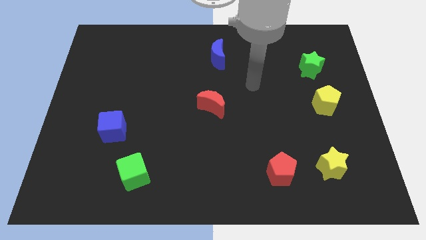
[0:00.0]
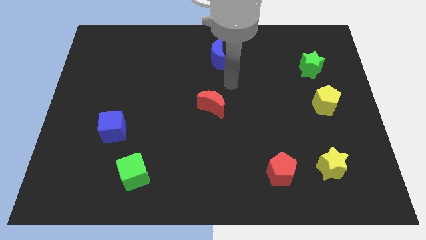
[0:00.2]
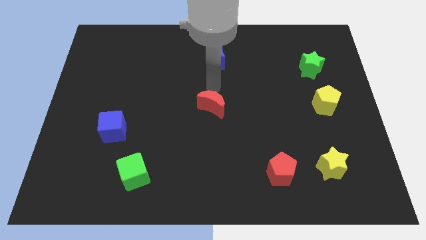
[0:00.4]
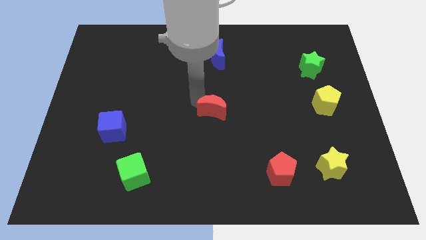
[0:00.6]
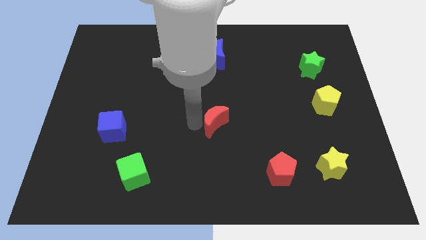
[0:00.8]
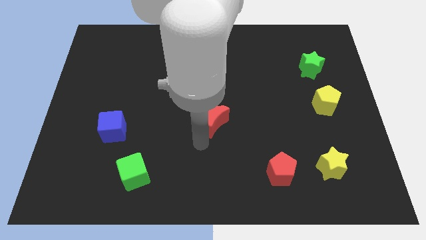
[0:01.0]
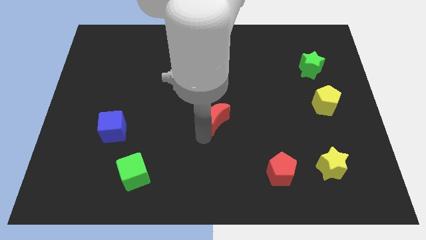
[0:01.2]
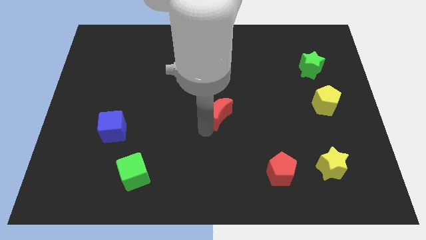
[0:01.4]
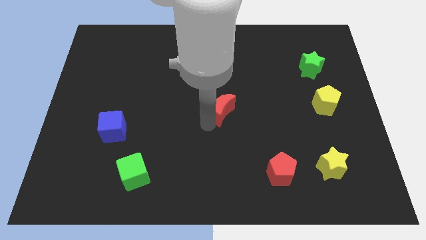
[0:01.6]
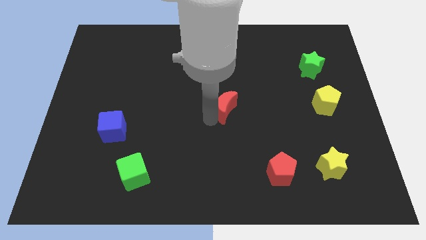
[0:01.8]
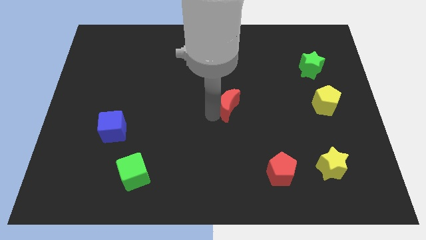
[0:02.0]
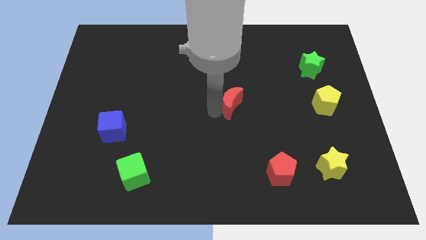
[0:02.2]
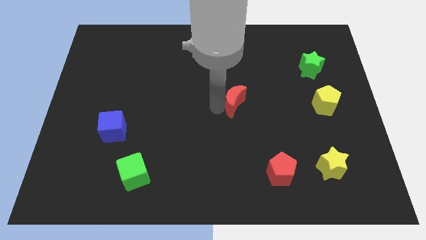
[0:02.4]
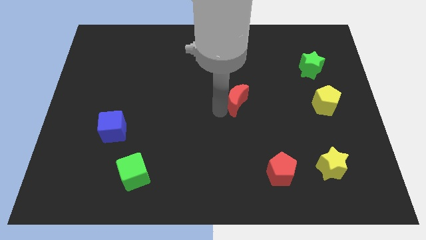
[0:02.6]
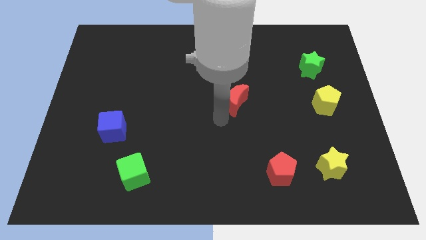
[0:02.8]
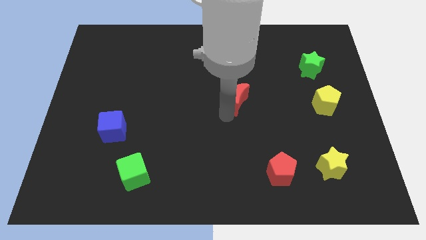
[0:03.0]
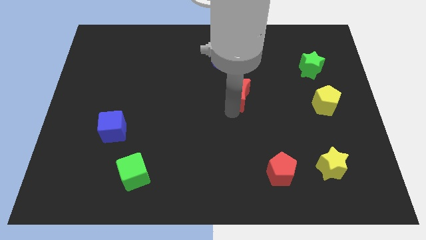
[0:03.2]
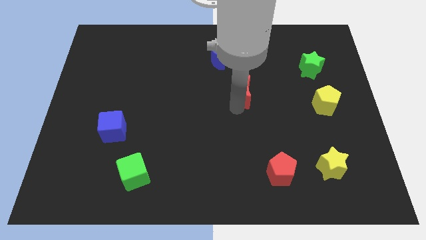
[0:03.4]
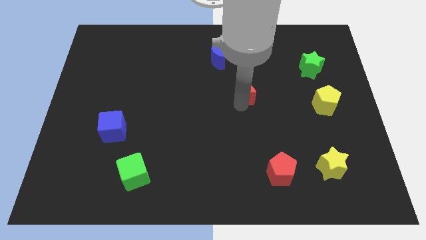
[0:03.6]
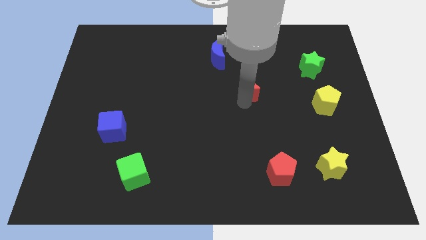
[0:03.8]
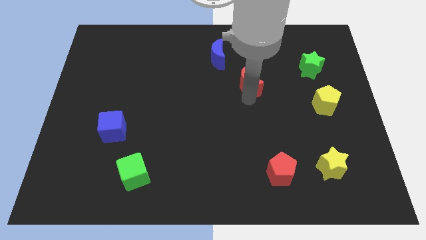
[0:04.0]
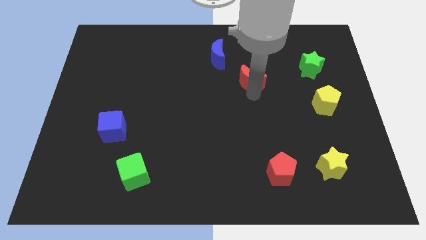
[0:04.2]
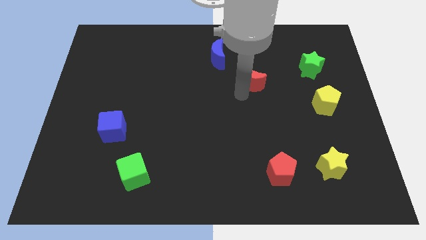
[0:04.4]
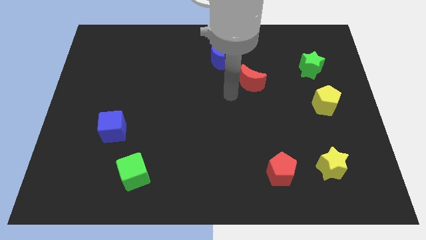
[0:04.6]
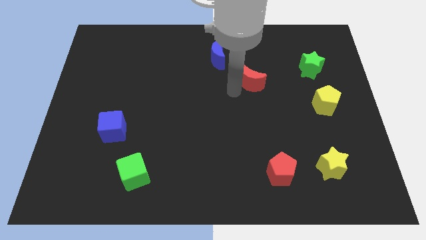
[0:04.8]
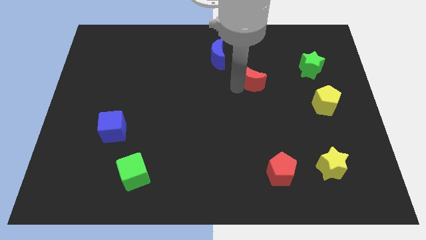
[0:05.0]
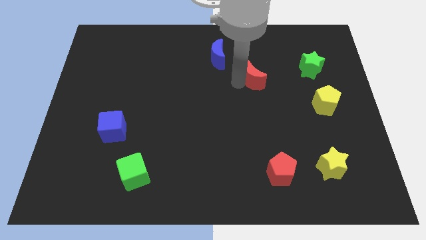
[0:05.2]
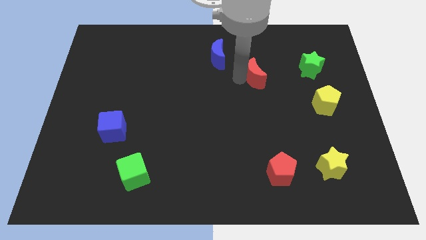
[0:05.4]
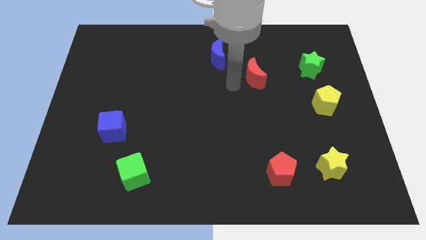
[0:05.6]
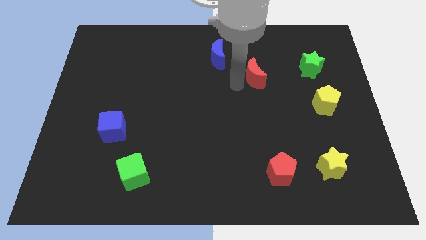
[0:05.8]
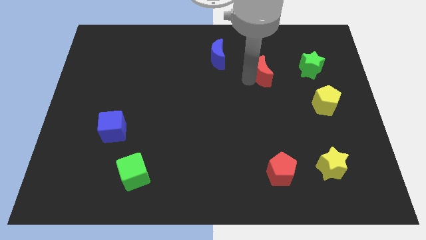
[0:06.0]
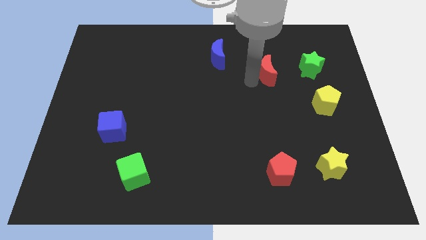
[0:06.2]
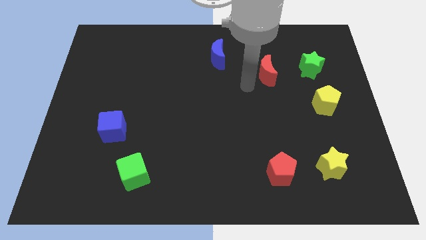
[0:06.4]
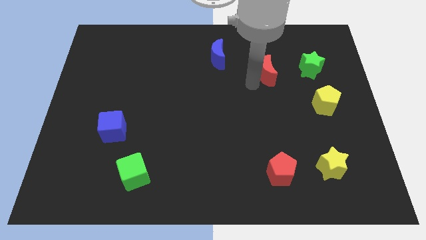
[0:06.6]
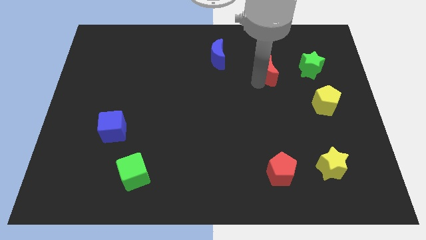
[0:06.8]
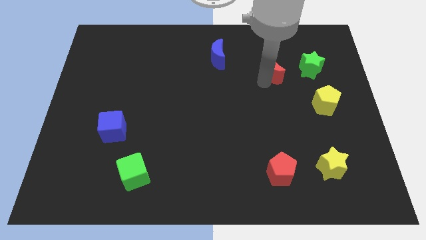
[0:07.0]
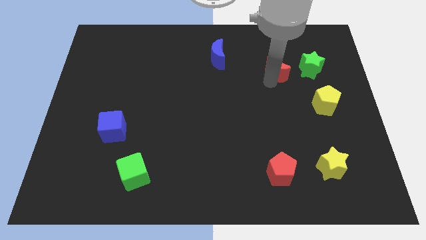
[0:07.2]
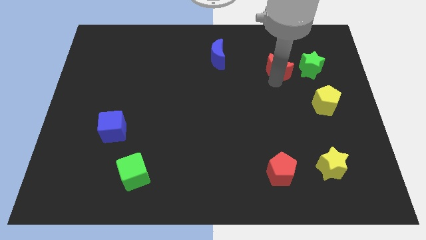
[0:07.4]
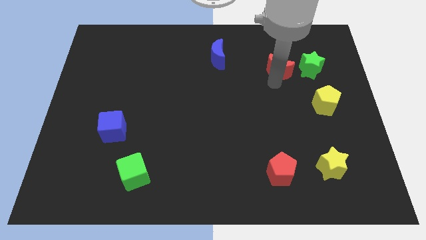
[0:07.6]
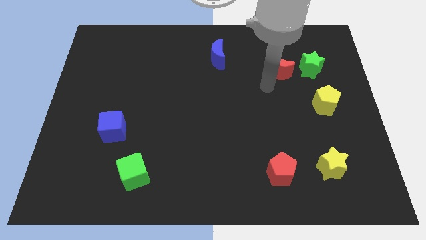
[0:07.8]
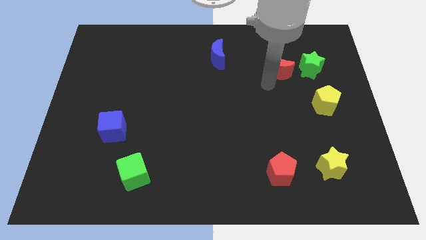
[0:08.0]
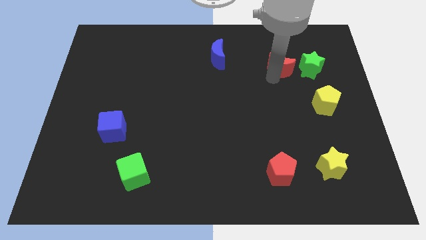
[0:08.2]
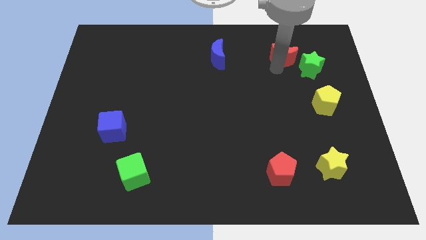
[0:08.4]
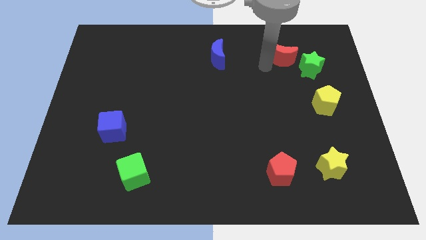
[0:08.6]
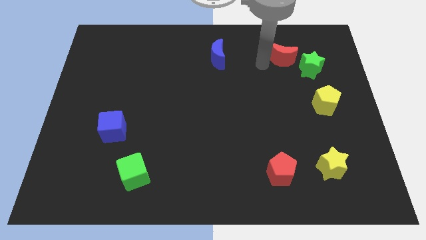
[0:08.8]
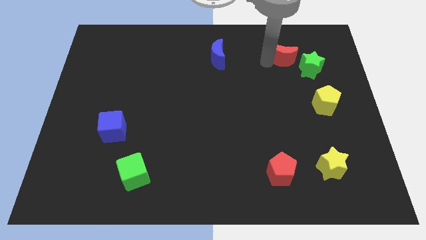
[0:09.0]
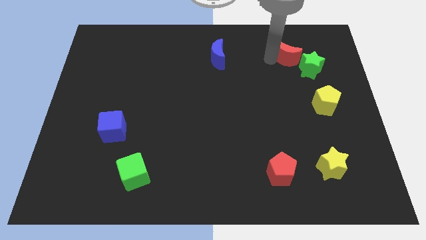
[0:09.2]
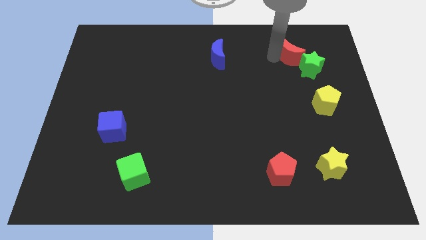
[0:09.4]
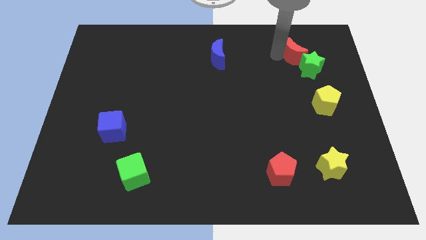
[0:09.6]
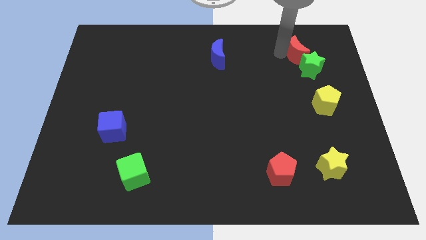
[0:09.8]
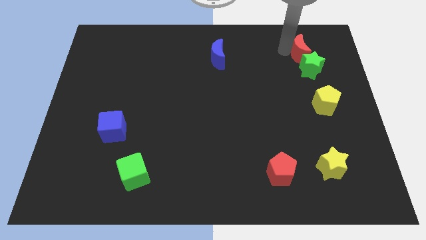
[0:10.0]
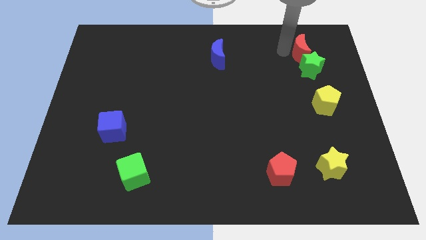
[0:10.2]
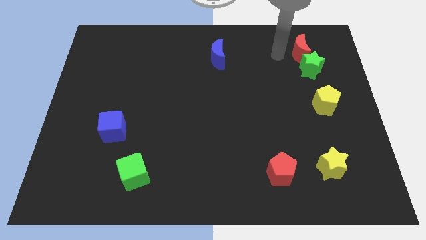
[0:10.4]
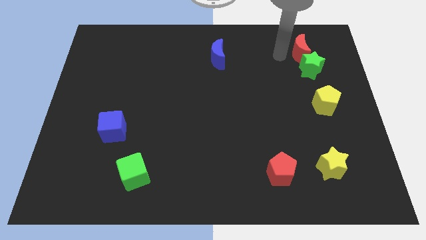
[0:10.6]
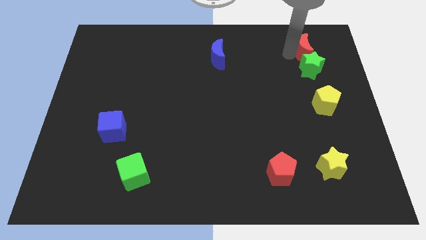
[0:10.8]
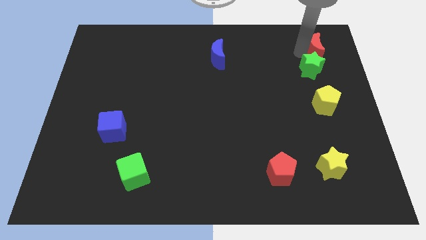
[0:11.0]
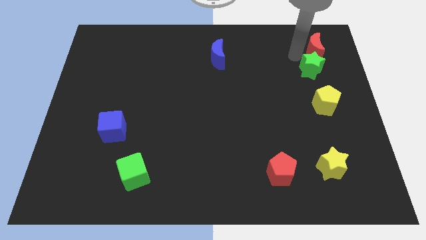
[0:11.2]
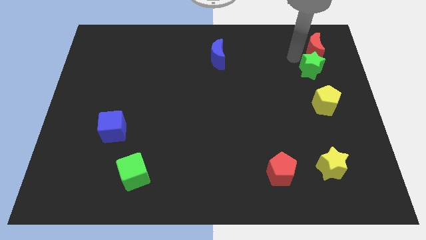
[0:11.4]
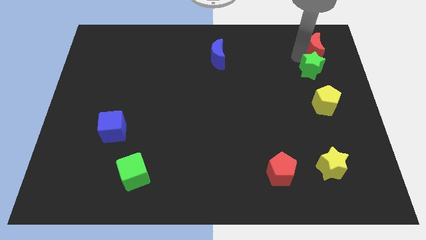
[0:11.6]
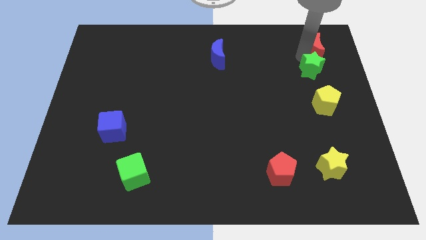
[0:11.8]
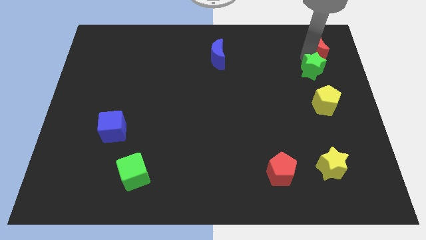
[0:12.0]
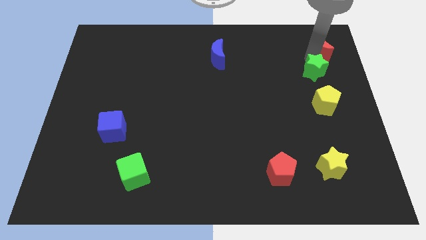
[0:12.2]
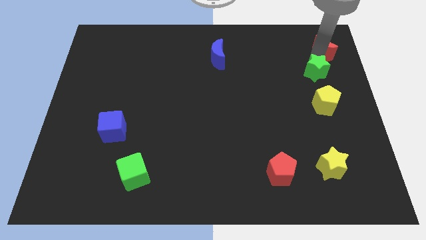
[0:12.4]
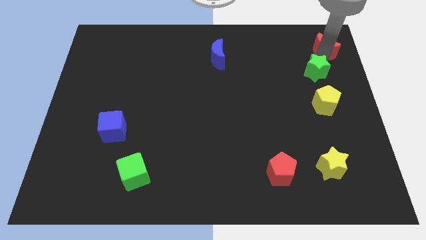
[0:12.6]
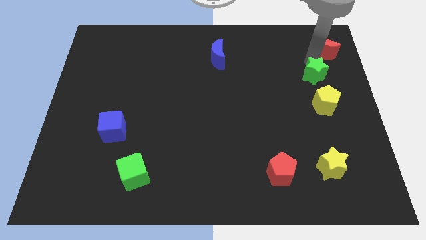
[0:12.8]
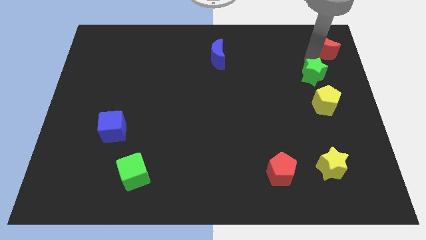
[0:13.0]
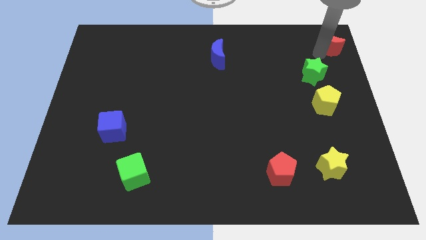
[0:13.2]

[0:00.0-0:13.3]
move the red moon to the top right corner
